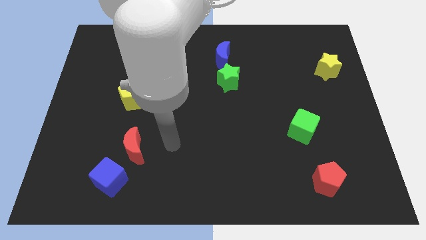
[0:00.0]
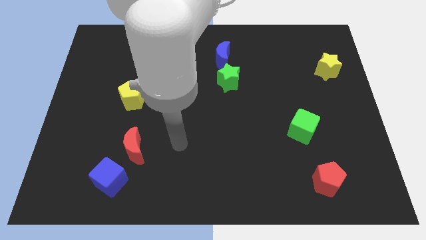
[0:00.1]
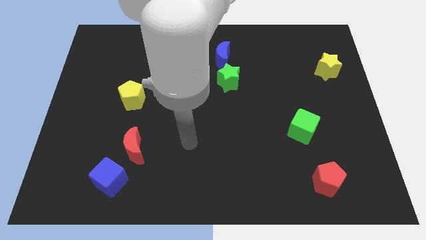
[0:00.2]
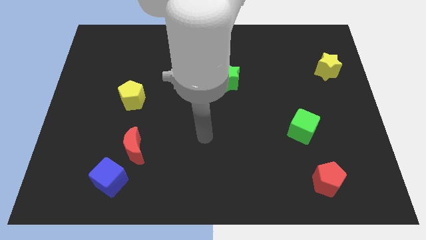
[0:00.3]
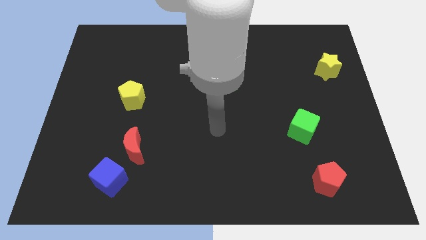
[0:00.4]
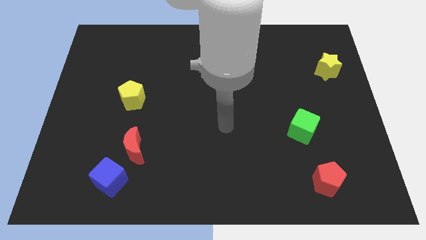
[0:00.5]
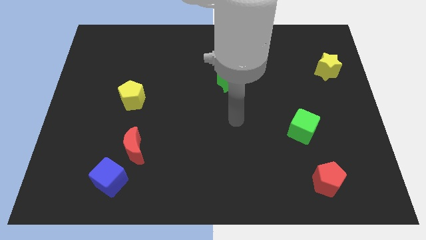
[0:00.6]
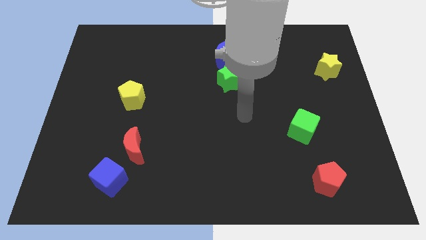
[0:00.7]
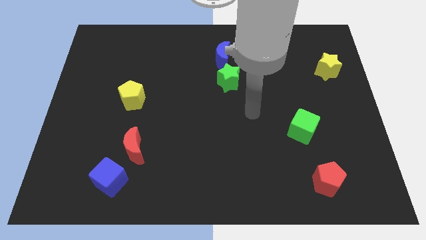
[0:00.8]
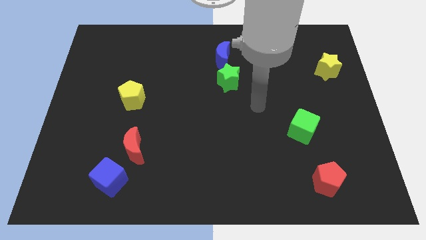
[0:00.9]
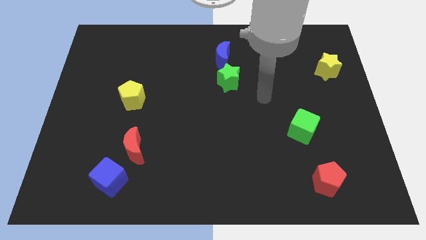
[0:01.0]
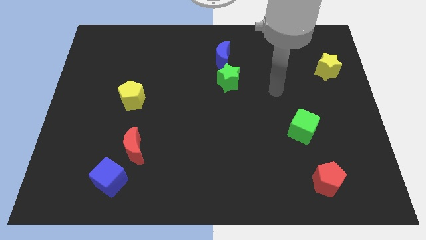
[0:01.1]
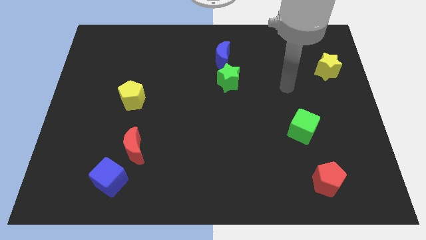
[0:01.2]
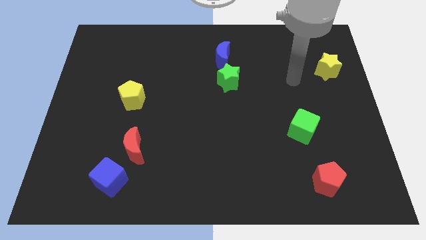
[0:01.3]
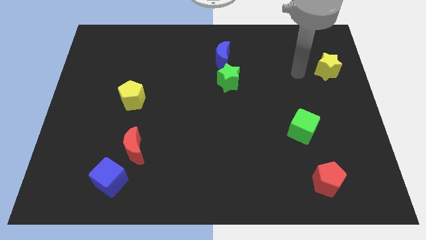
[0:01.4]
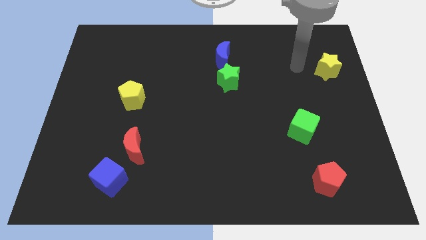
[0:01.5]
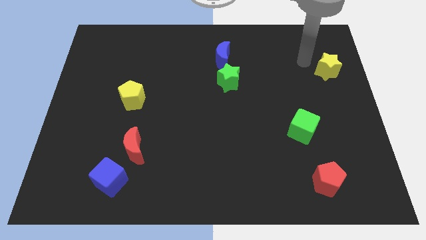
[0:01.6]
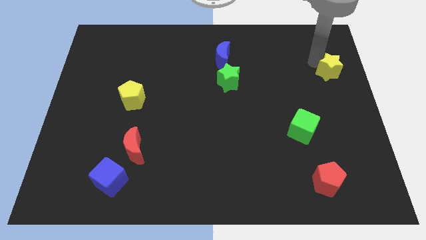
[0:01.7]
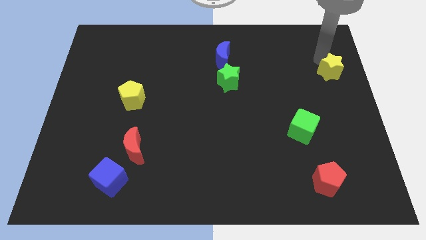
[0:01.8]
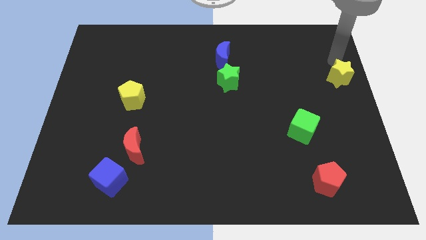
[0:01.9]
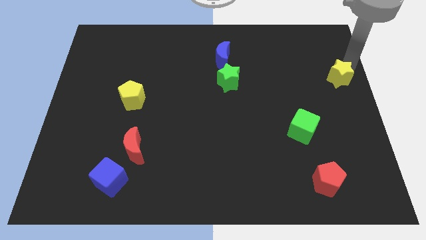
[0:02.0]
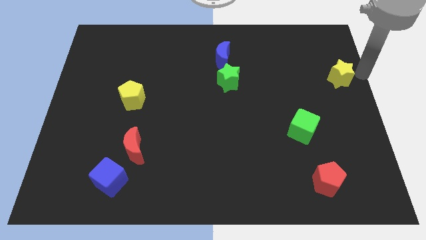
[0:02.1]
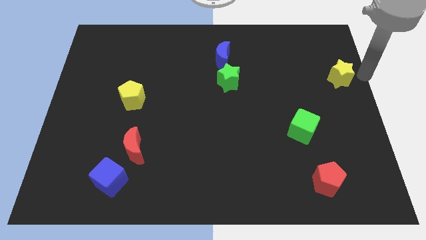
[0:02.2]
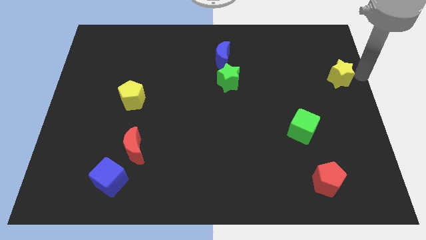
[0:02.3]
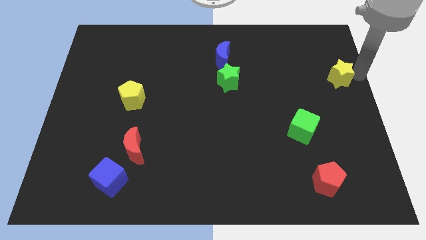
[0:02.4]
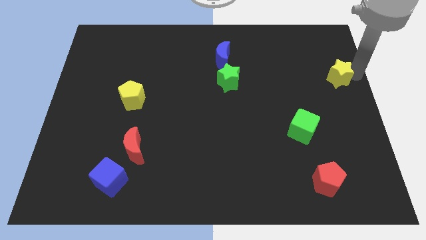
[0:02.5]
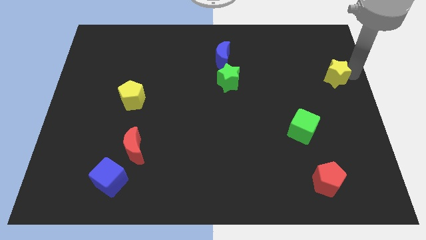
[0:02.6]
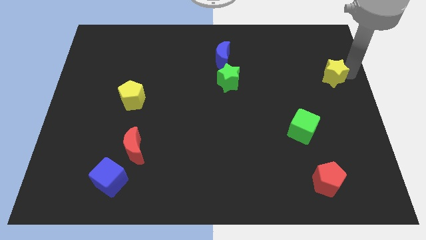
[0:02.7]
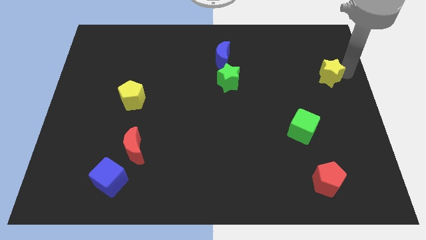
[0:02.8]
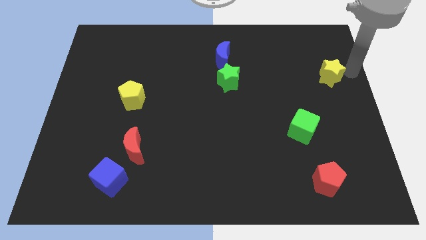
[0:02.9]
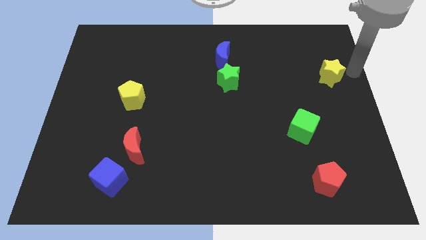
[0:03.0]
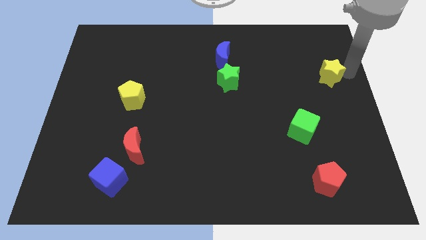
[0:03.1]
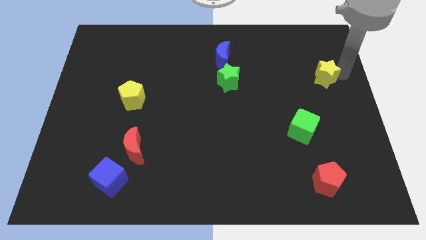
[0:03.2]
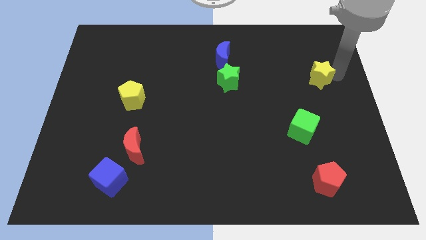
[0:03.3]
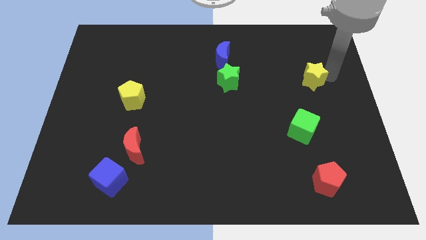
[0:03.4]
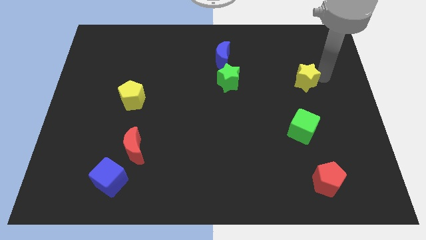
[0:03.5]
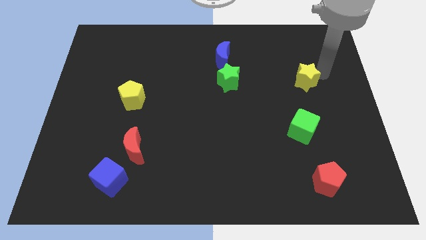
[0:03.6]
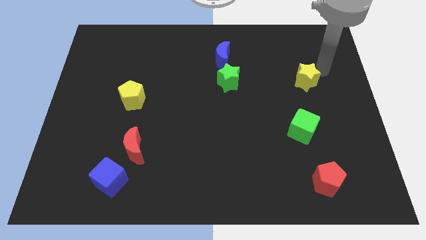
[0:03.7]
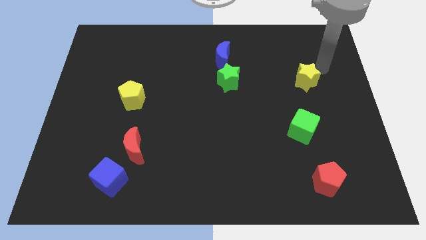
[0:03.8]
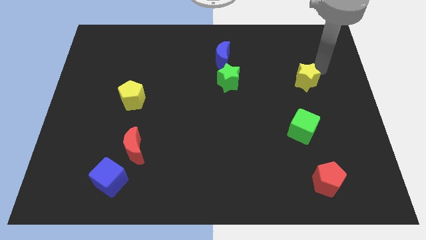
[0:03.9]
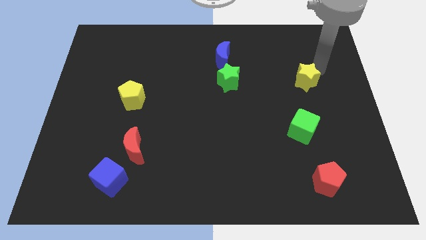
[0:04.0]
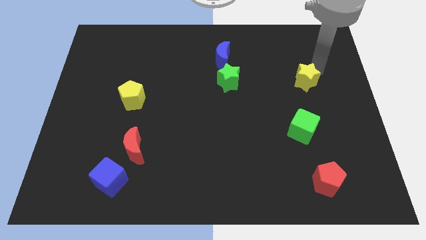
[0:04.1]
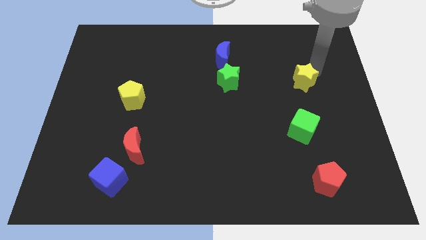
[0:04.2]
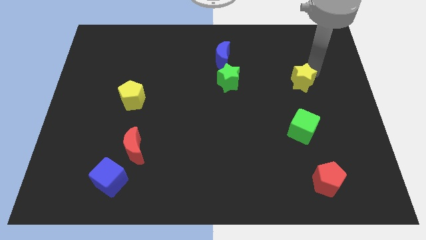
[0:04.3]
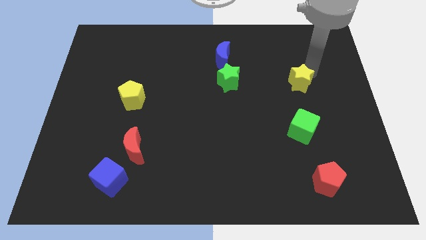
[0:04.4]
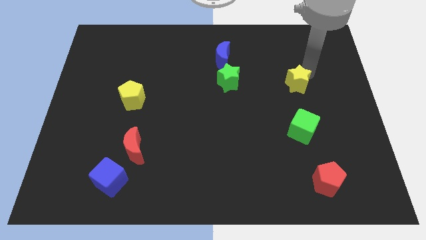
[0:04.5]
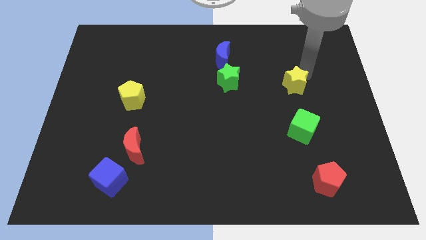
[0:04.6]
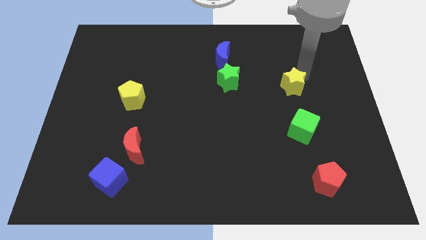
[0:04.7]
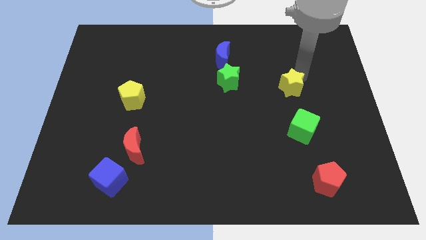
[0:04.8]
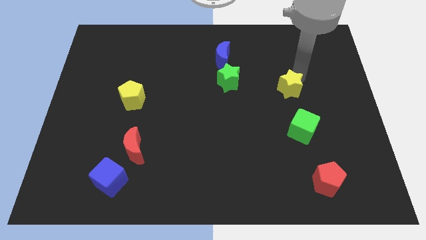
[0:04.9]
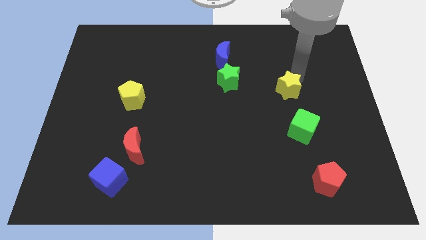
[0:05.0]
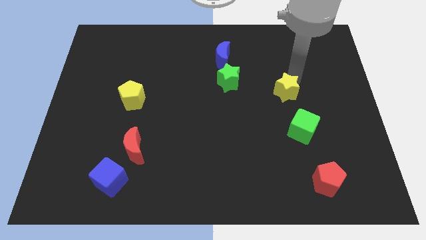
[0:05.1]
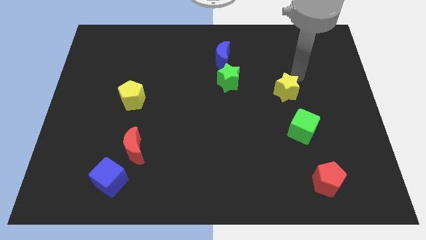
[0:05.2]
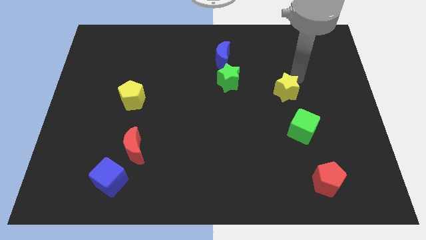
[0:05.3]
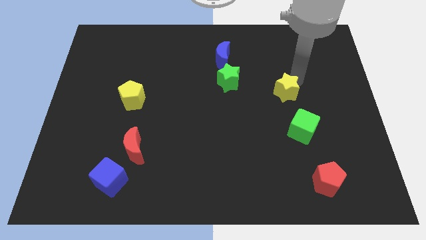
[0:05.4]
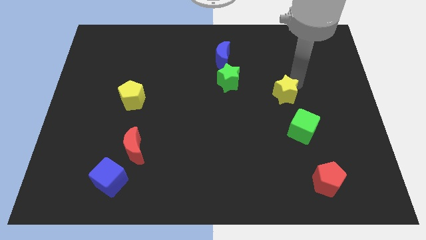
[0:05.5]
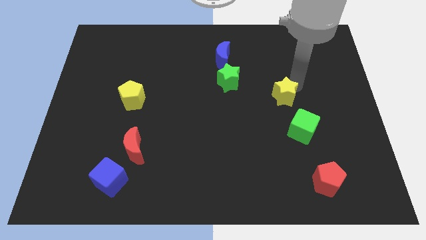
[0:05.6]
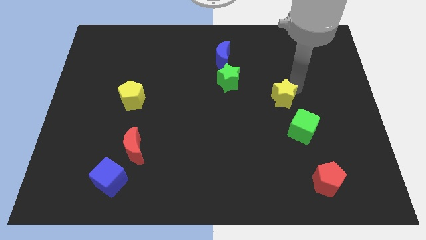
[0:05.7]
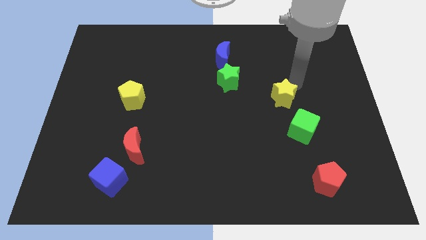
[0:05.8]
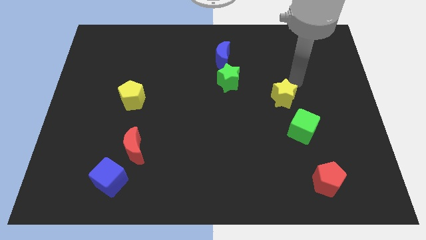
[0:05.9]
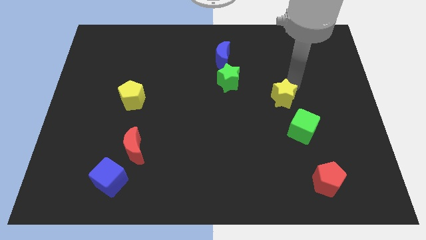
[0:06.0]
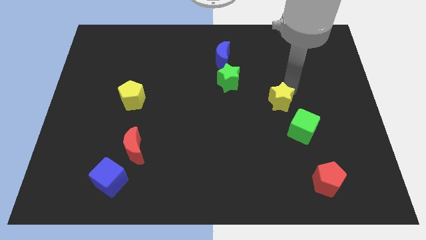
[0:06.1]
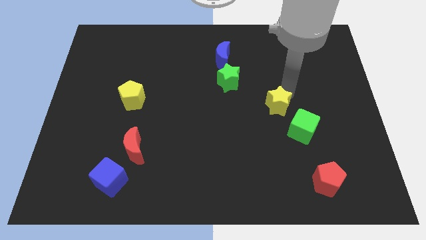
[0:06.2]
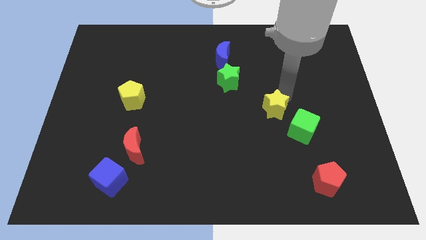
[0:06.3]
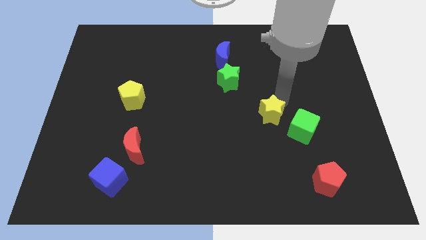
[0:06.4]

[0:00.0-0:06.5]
put the yellow star to the left of the green cube
